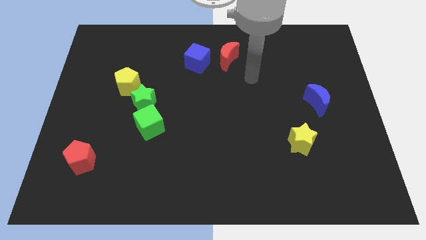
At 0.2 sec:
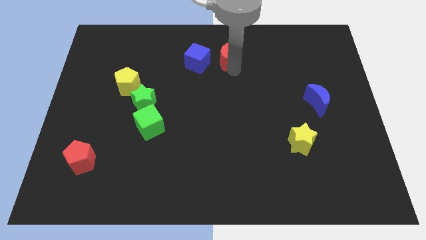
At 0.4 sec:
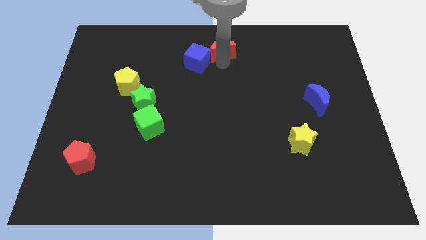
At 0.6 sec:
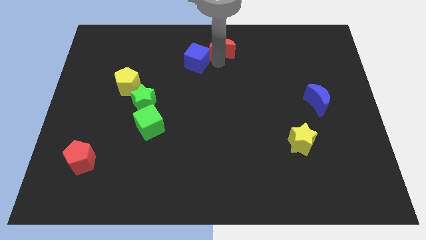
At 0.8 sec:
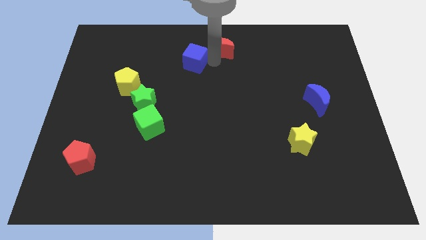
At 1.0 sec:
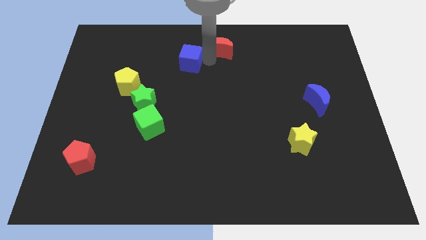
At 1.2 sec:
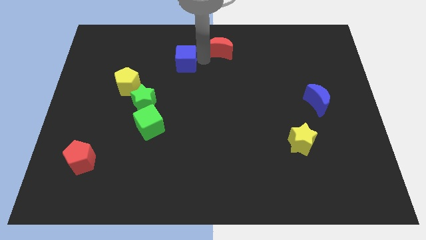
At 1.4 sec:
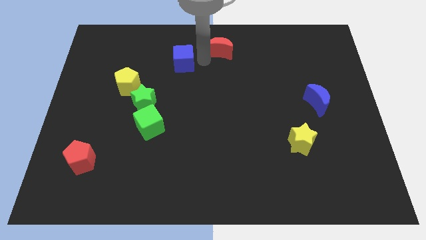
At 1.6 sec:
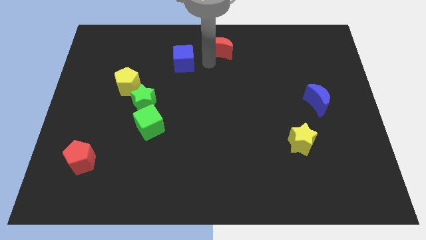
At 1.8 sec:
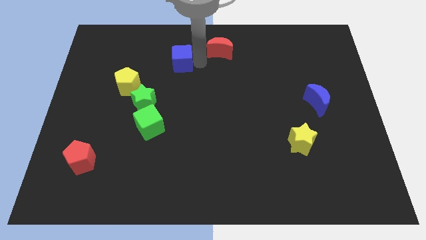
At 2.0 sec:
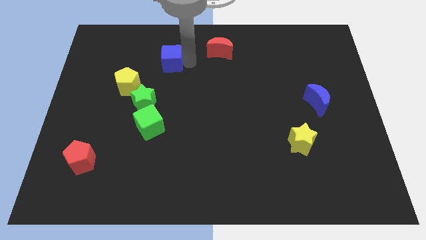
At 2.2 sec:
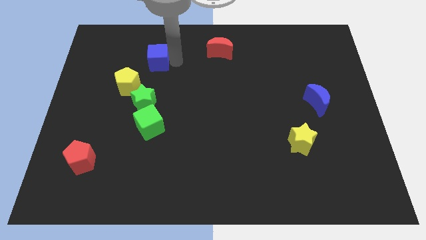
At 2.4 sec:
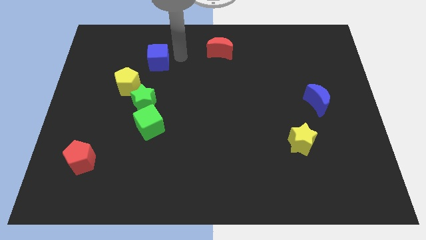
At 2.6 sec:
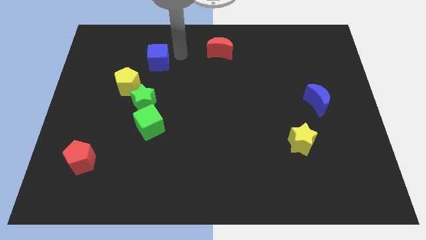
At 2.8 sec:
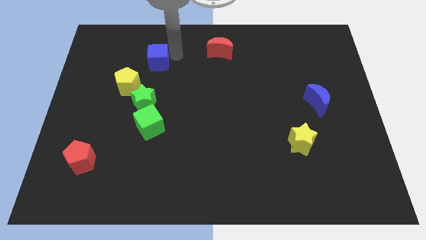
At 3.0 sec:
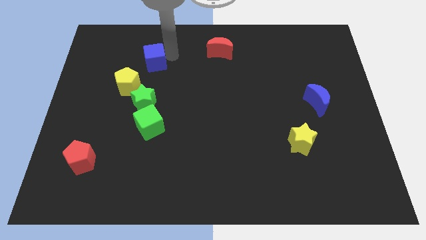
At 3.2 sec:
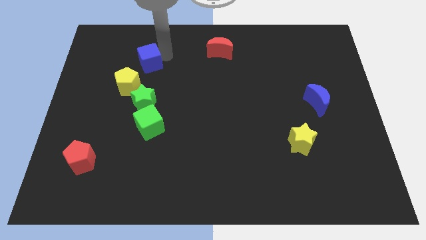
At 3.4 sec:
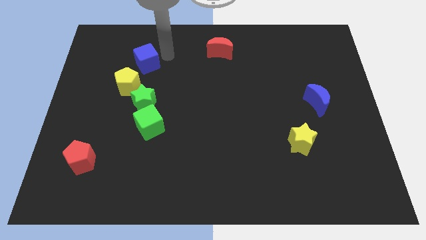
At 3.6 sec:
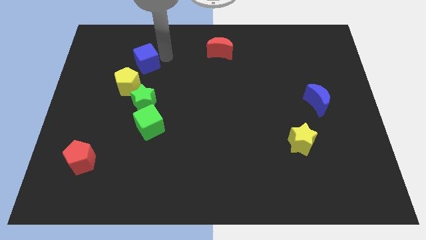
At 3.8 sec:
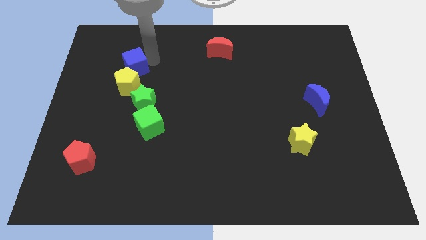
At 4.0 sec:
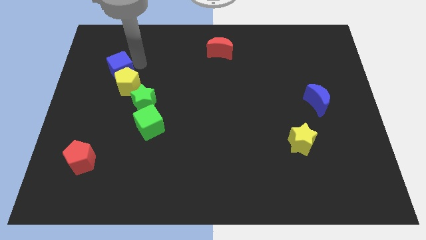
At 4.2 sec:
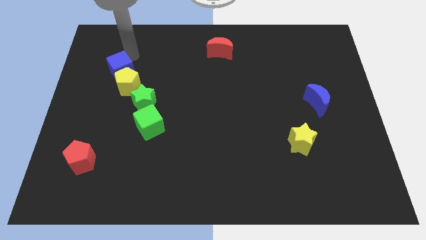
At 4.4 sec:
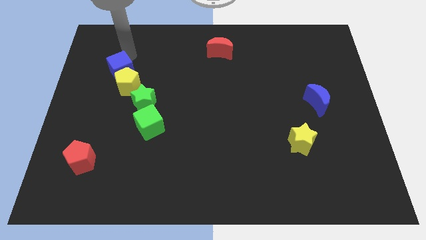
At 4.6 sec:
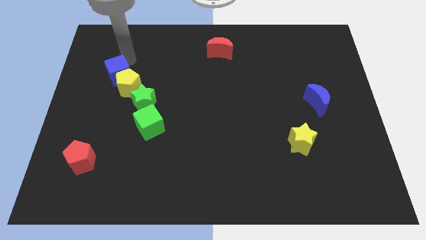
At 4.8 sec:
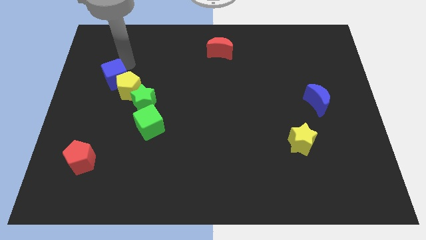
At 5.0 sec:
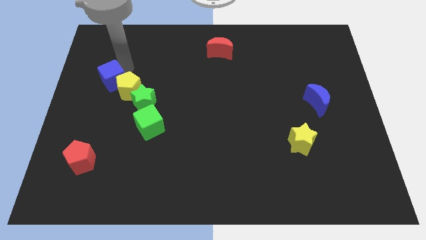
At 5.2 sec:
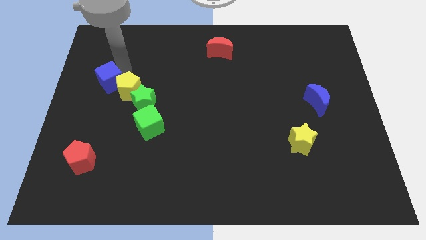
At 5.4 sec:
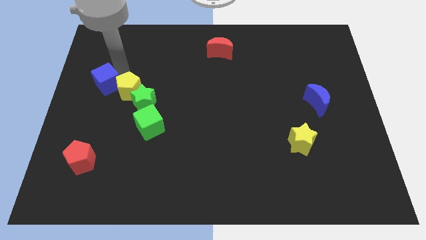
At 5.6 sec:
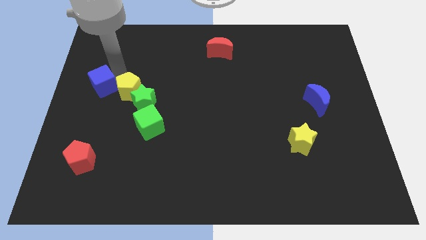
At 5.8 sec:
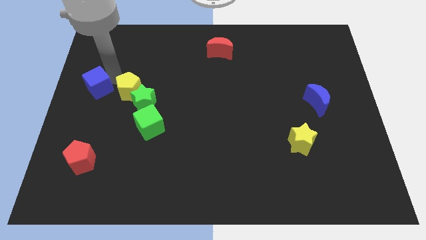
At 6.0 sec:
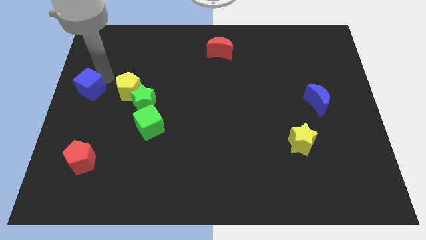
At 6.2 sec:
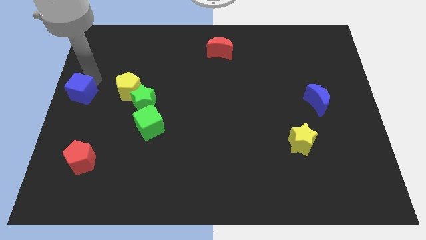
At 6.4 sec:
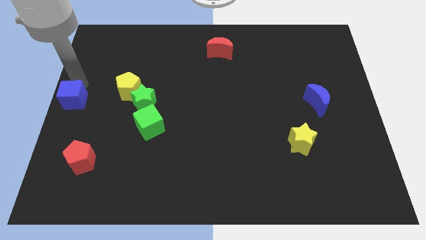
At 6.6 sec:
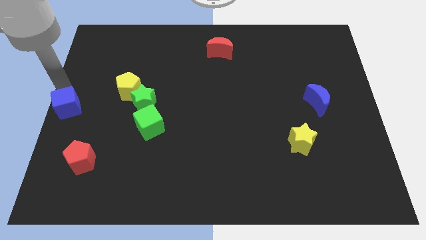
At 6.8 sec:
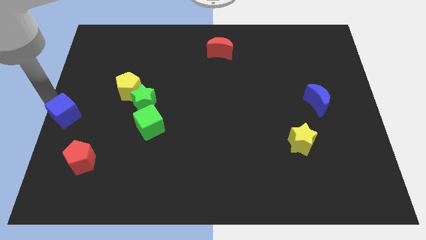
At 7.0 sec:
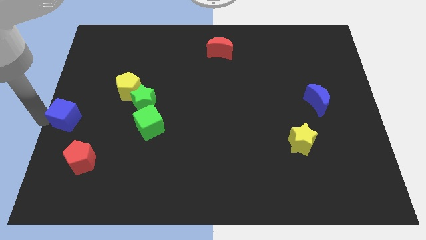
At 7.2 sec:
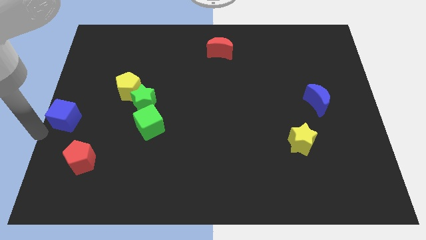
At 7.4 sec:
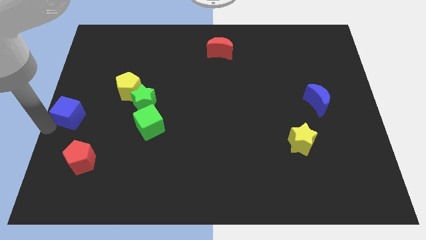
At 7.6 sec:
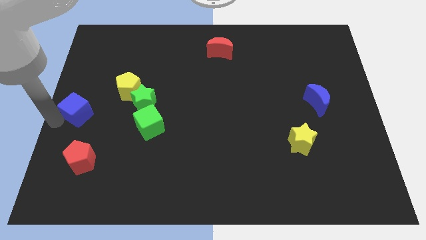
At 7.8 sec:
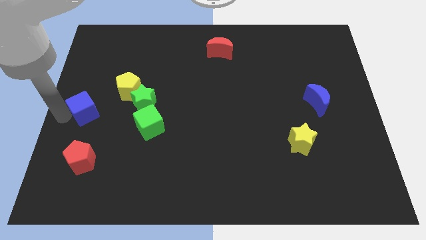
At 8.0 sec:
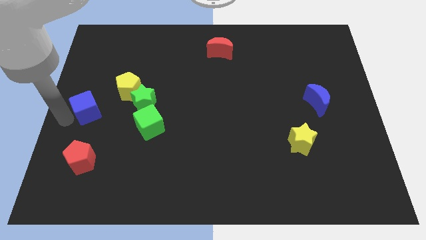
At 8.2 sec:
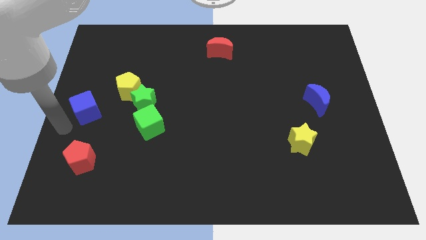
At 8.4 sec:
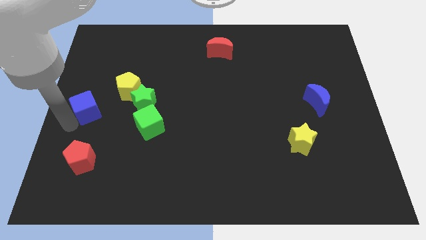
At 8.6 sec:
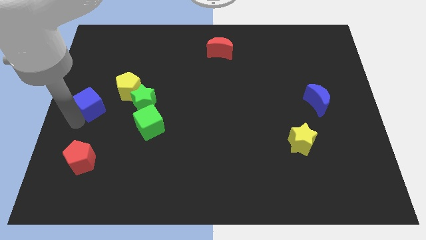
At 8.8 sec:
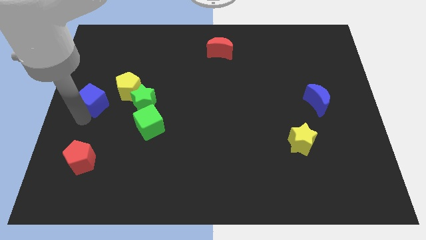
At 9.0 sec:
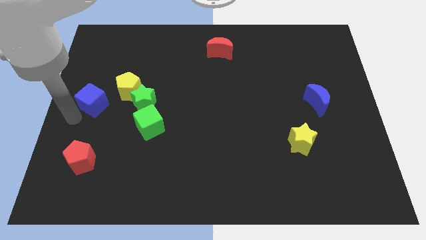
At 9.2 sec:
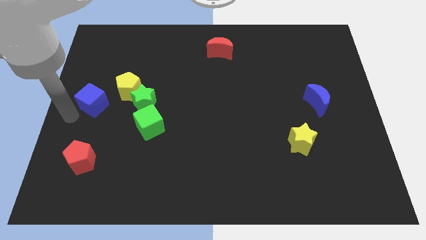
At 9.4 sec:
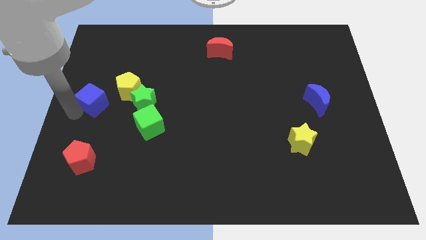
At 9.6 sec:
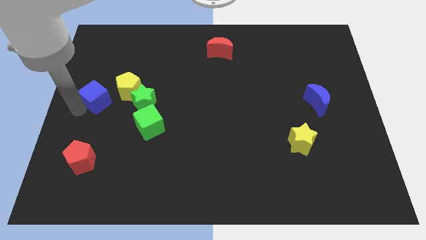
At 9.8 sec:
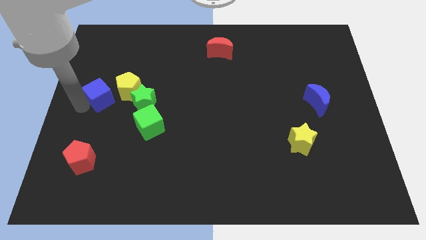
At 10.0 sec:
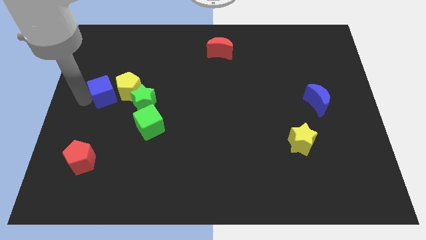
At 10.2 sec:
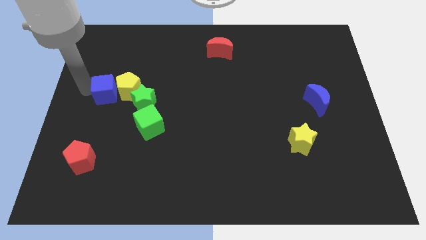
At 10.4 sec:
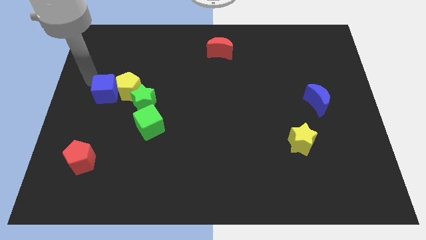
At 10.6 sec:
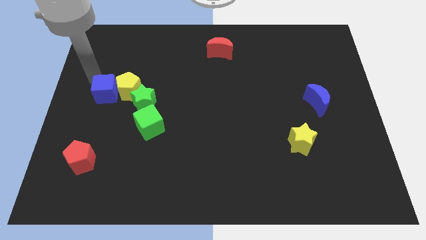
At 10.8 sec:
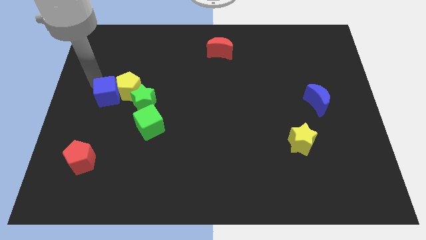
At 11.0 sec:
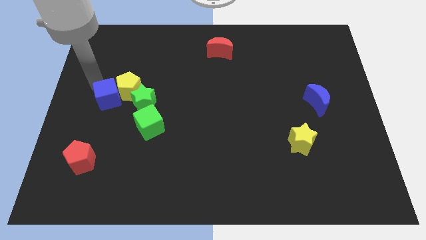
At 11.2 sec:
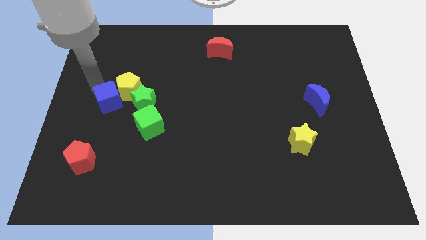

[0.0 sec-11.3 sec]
put the blue cube to the bottom side of the yellow pentagon

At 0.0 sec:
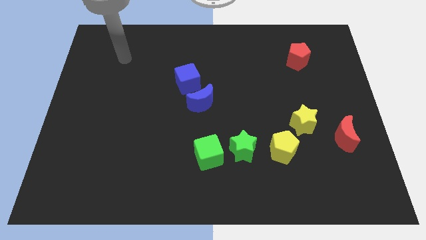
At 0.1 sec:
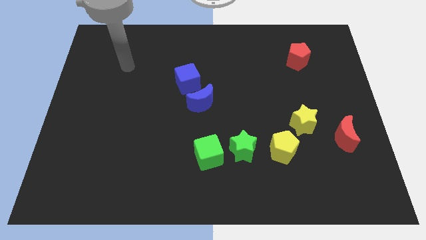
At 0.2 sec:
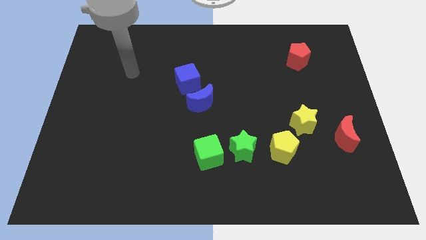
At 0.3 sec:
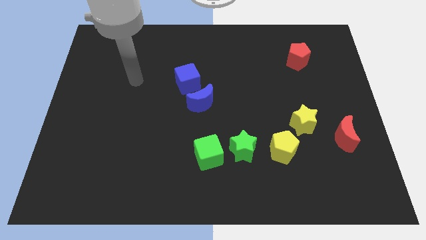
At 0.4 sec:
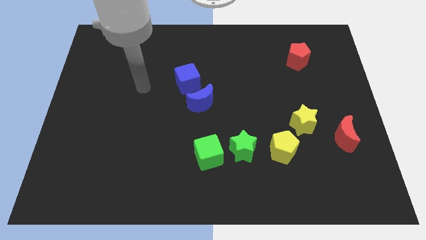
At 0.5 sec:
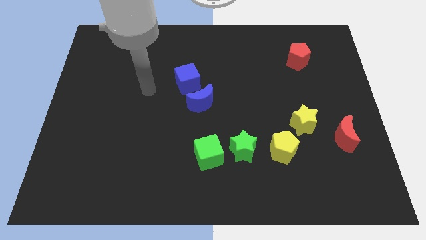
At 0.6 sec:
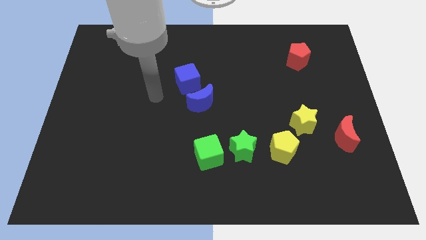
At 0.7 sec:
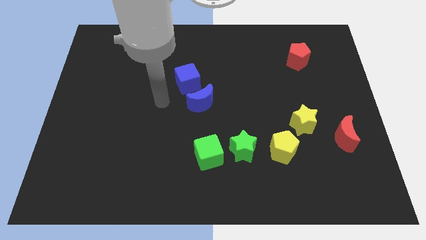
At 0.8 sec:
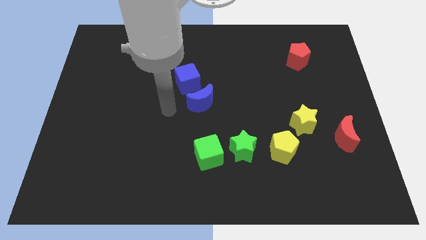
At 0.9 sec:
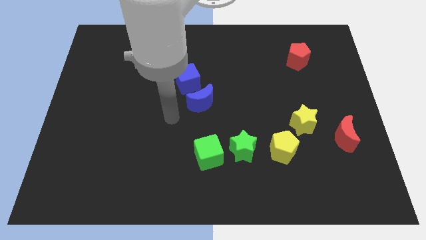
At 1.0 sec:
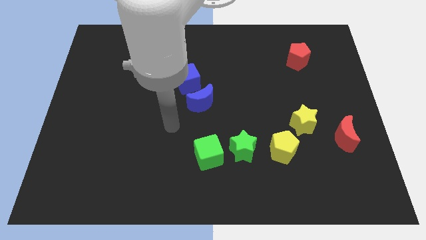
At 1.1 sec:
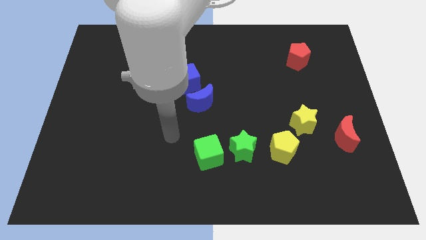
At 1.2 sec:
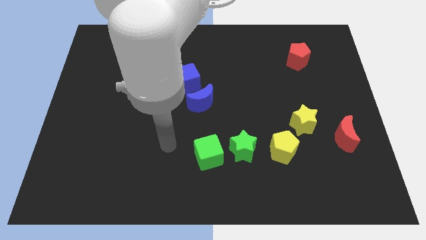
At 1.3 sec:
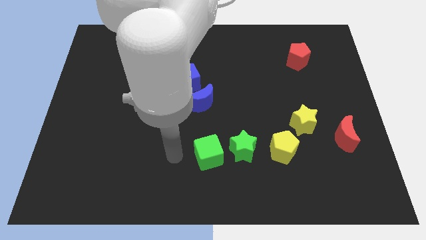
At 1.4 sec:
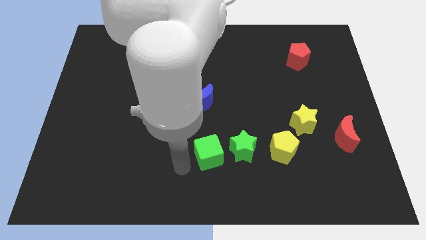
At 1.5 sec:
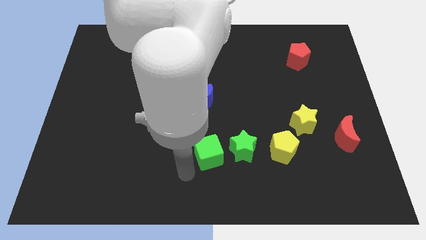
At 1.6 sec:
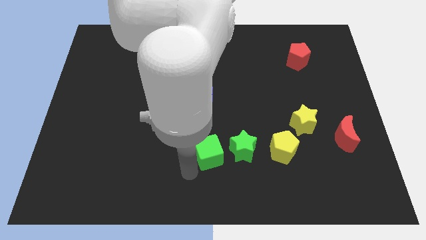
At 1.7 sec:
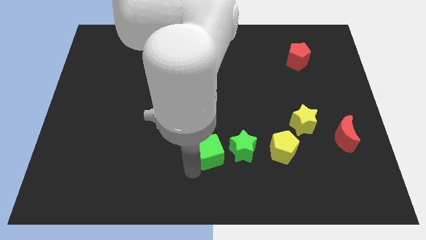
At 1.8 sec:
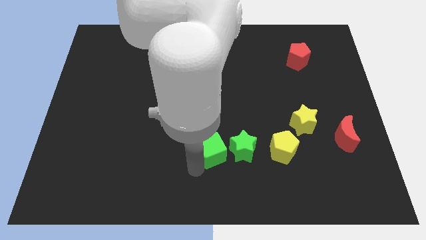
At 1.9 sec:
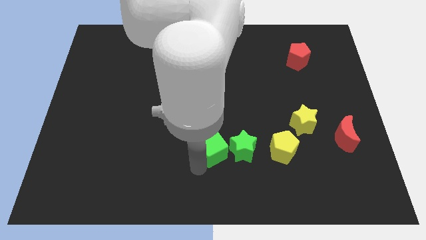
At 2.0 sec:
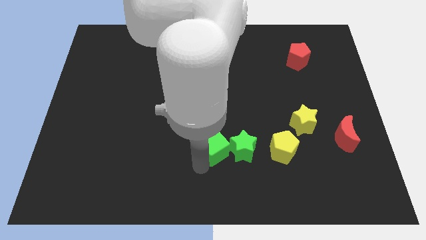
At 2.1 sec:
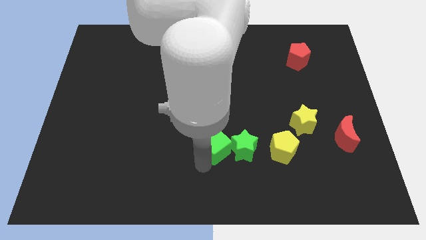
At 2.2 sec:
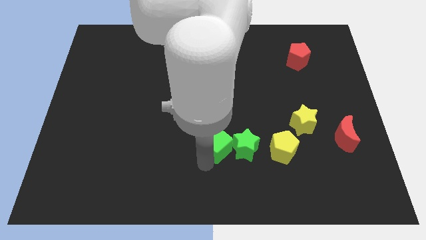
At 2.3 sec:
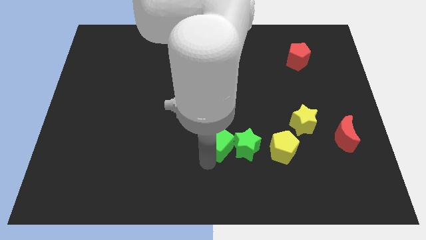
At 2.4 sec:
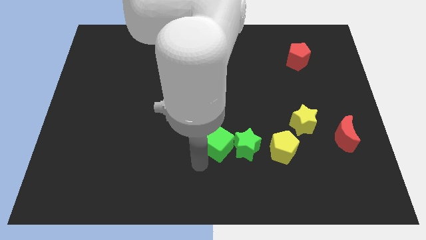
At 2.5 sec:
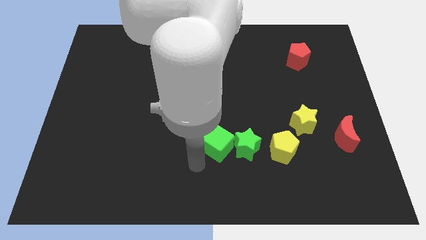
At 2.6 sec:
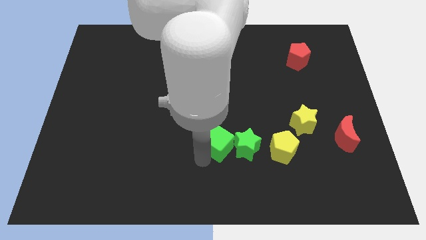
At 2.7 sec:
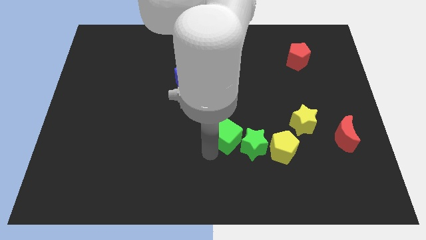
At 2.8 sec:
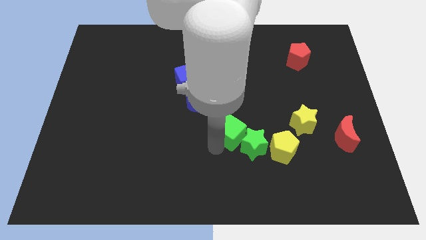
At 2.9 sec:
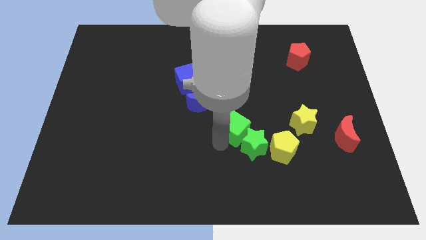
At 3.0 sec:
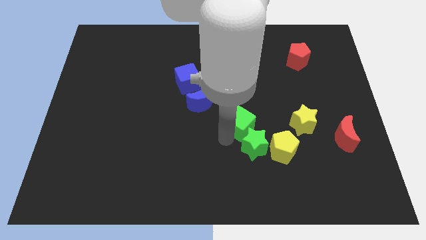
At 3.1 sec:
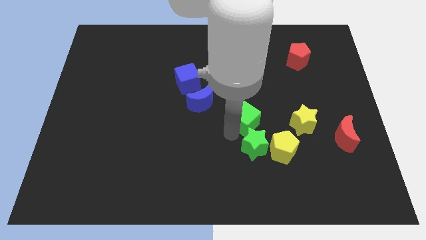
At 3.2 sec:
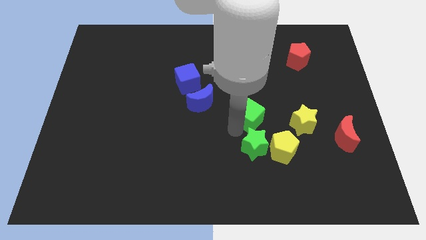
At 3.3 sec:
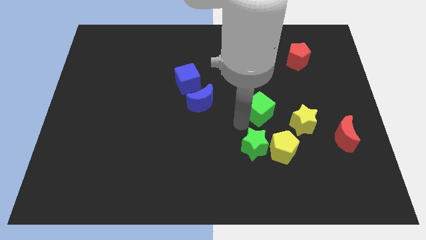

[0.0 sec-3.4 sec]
slide the green cube to the top left of the yellow star
